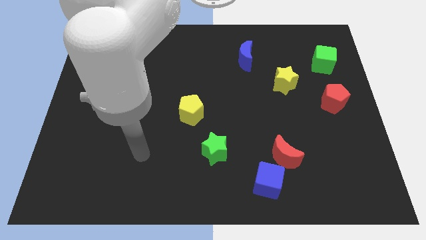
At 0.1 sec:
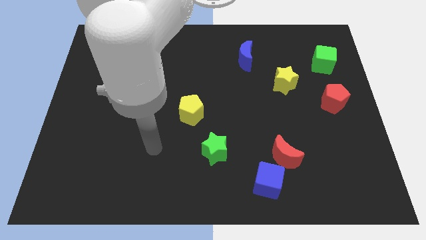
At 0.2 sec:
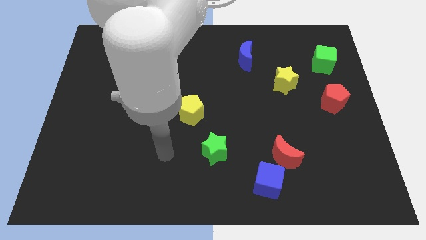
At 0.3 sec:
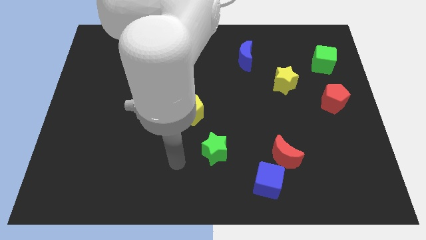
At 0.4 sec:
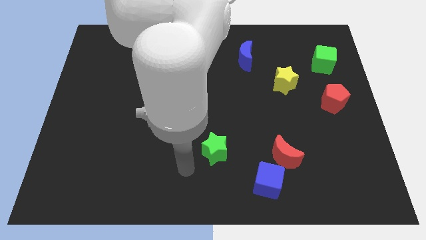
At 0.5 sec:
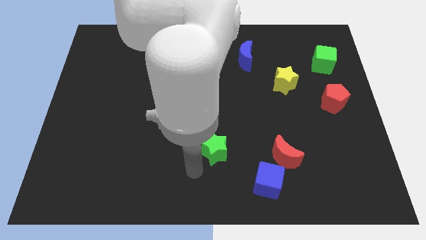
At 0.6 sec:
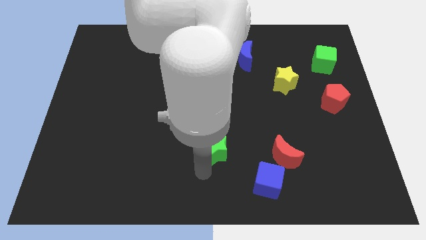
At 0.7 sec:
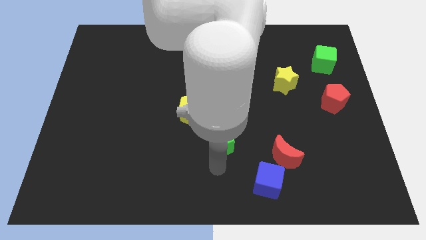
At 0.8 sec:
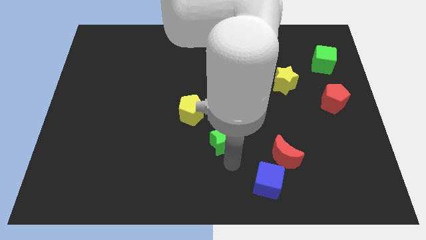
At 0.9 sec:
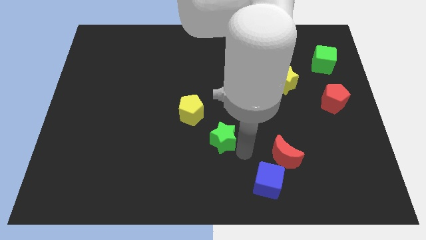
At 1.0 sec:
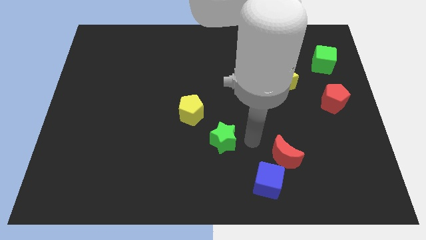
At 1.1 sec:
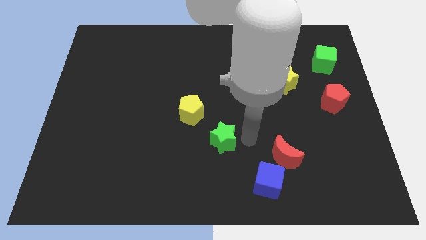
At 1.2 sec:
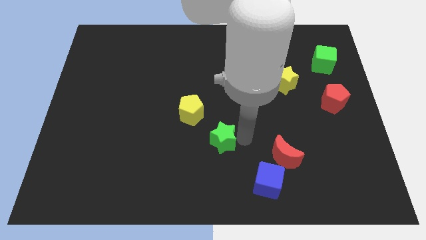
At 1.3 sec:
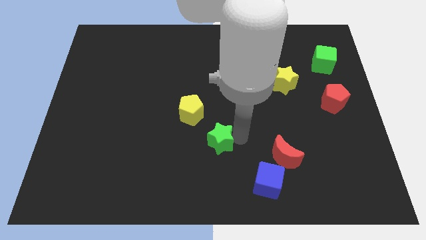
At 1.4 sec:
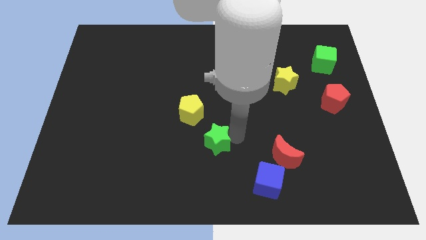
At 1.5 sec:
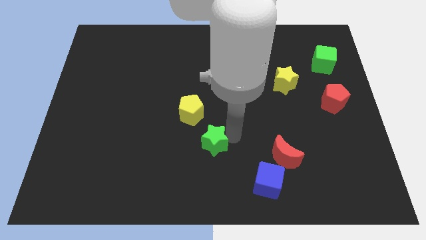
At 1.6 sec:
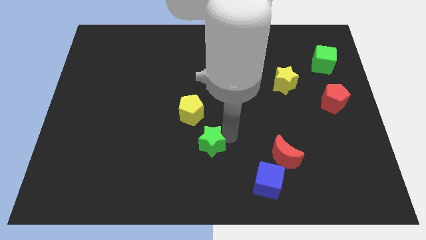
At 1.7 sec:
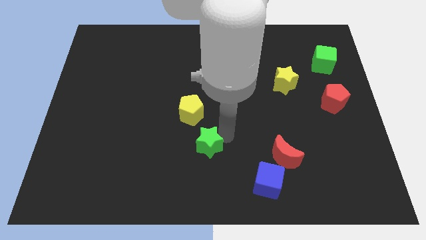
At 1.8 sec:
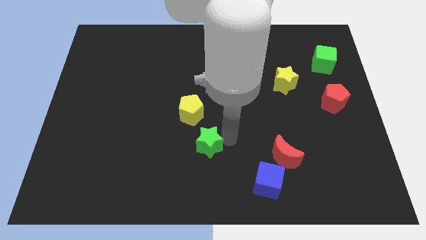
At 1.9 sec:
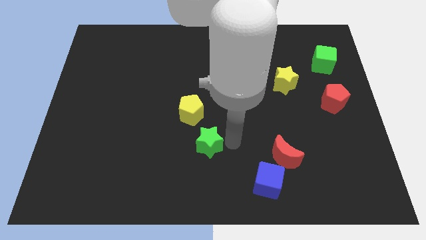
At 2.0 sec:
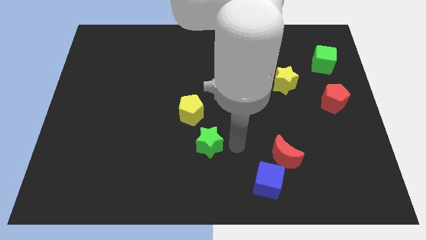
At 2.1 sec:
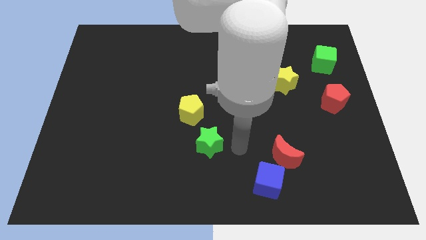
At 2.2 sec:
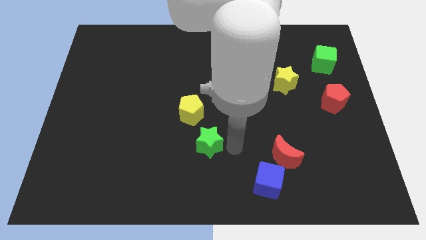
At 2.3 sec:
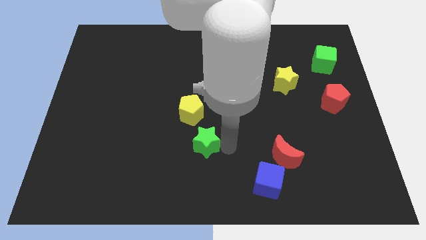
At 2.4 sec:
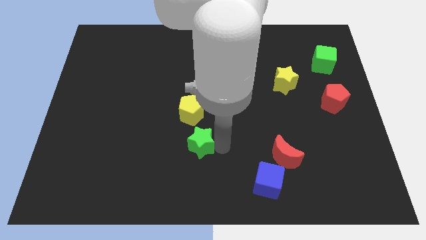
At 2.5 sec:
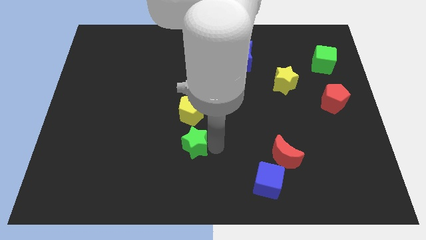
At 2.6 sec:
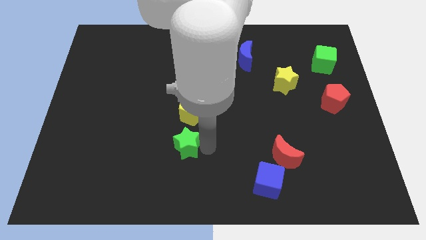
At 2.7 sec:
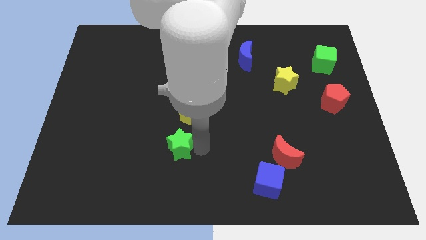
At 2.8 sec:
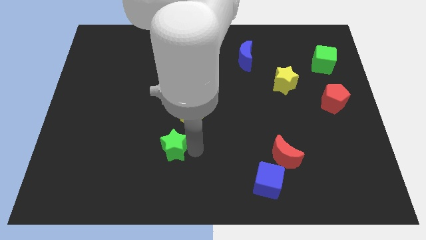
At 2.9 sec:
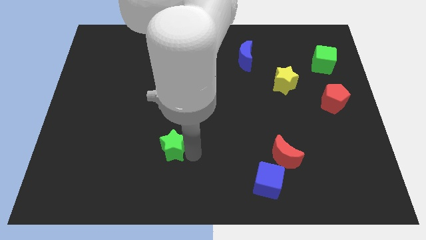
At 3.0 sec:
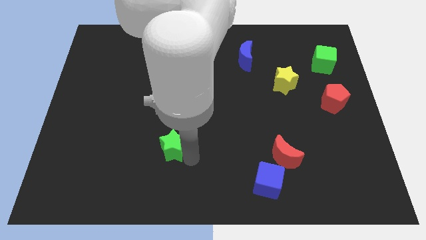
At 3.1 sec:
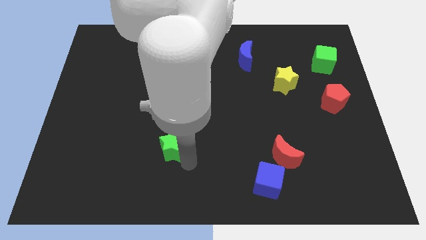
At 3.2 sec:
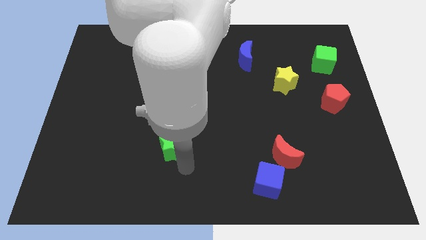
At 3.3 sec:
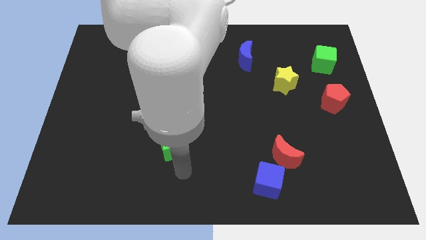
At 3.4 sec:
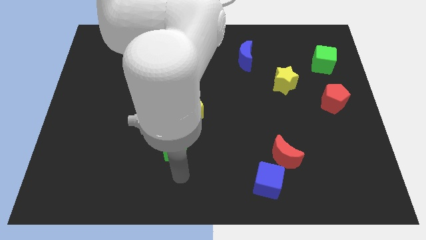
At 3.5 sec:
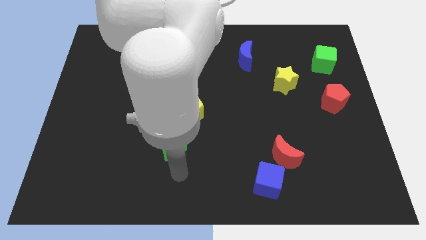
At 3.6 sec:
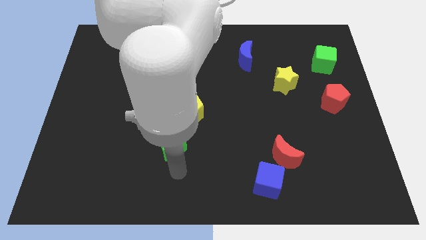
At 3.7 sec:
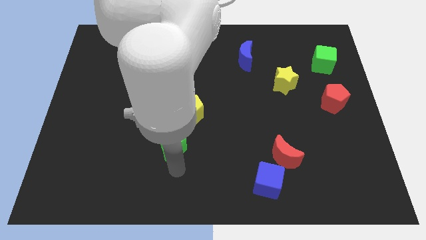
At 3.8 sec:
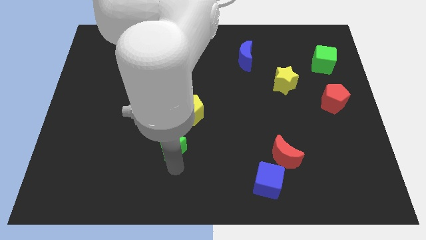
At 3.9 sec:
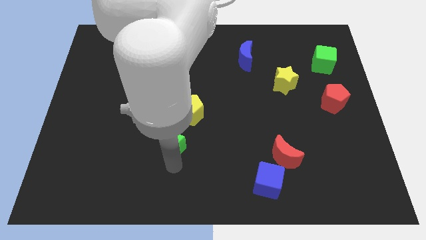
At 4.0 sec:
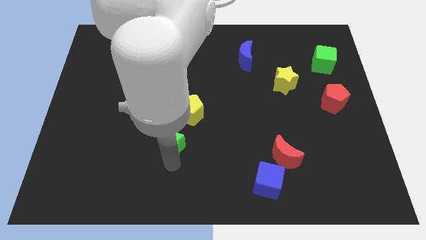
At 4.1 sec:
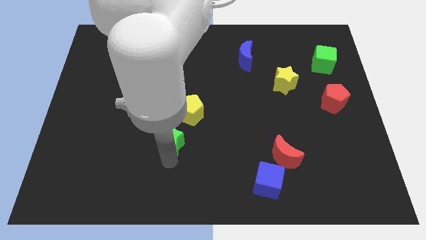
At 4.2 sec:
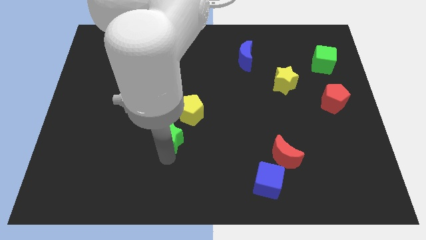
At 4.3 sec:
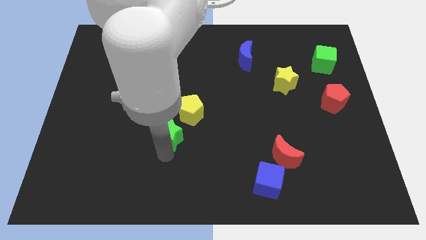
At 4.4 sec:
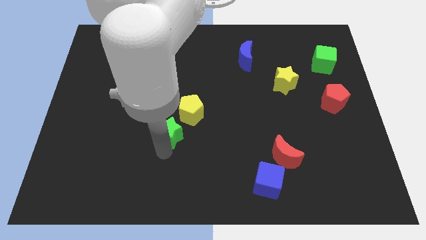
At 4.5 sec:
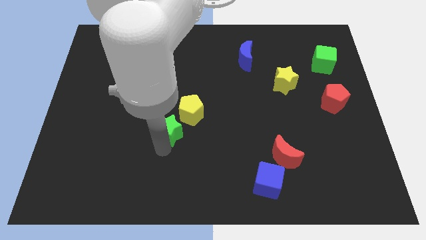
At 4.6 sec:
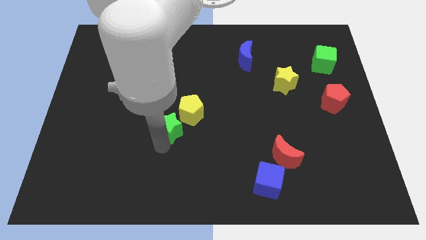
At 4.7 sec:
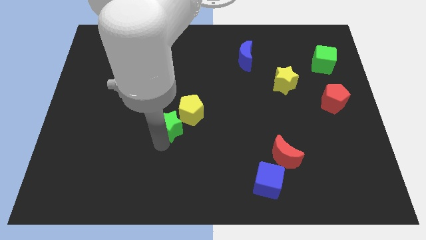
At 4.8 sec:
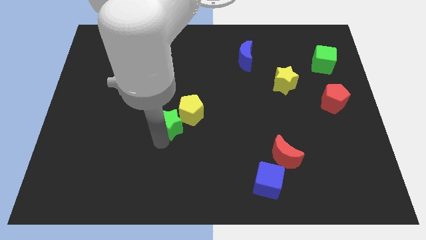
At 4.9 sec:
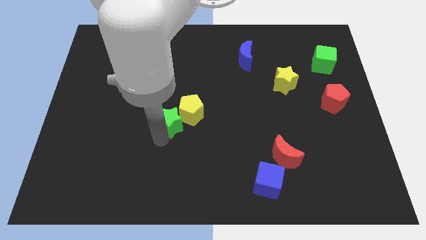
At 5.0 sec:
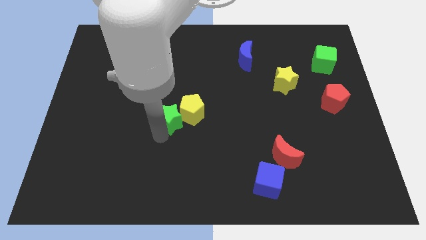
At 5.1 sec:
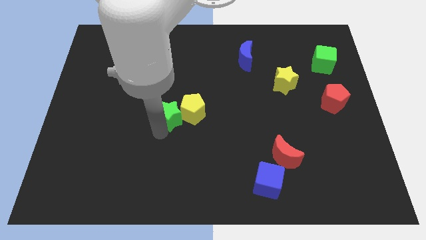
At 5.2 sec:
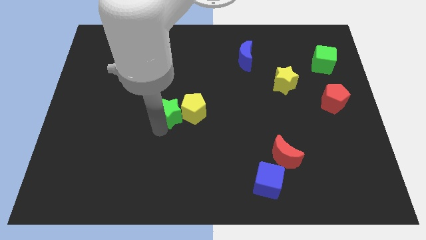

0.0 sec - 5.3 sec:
move the green star to the top left of the yellow pentagon

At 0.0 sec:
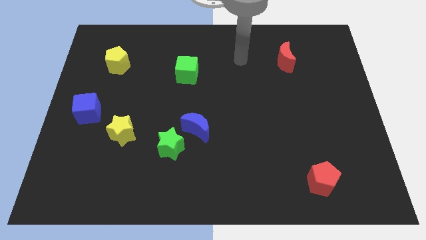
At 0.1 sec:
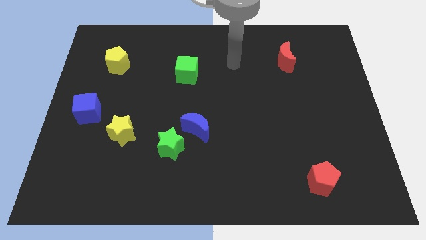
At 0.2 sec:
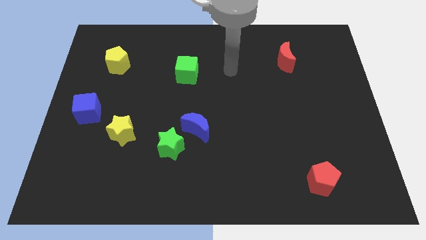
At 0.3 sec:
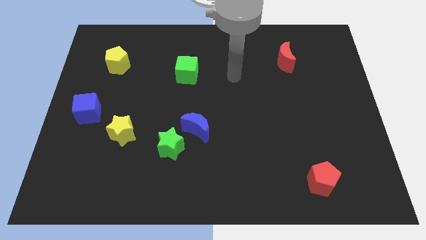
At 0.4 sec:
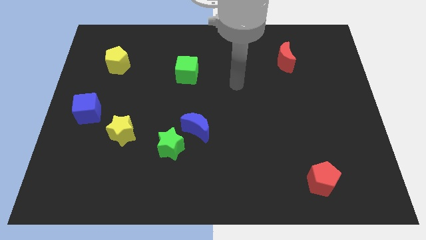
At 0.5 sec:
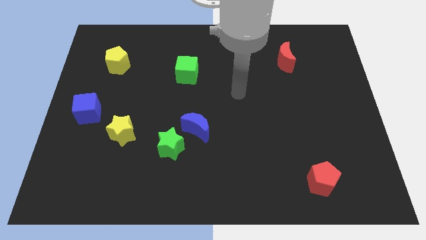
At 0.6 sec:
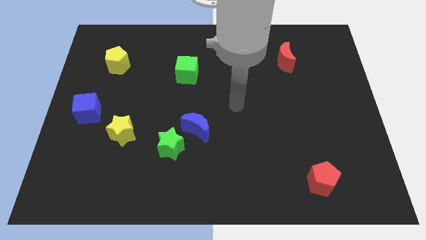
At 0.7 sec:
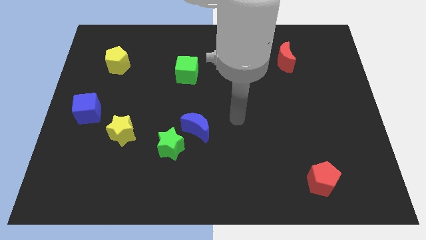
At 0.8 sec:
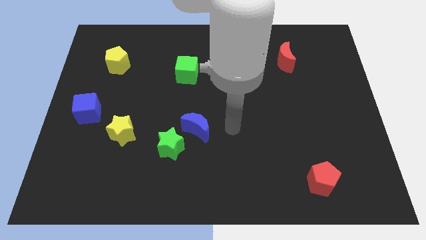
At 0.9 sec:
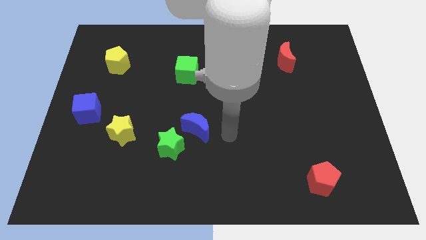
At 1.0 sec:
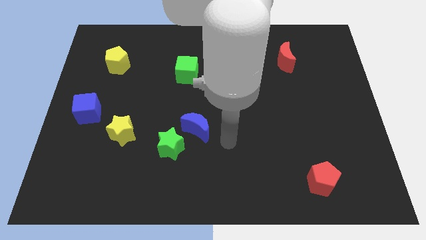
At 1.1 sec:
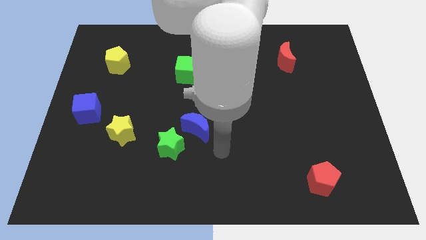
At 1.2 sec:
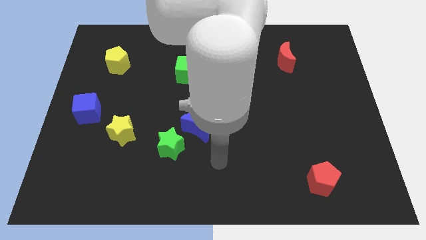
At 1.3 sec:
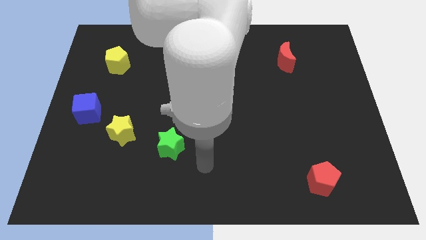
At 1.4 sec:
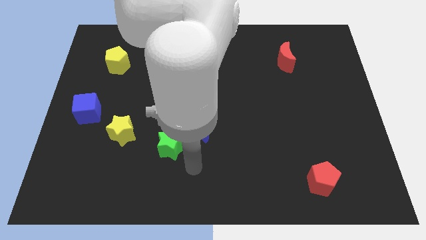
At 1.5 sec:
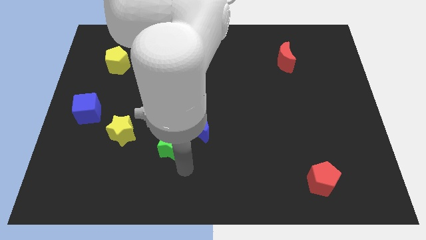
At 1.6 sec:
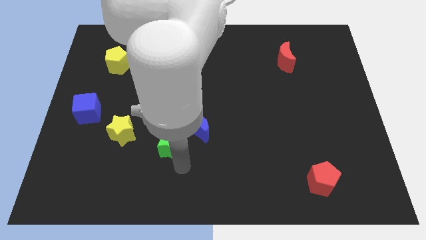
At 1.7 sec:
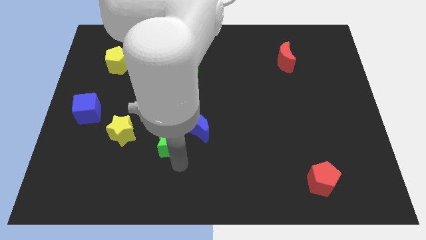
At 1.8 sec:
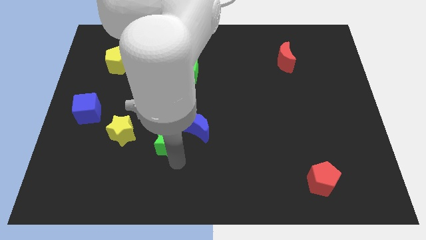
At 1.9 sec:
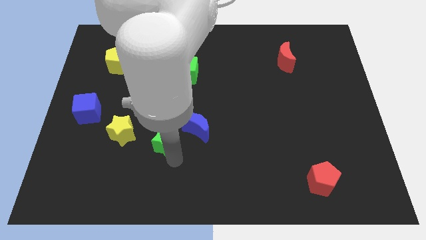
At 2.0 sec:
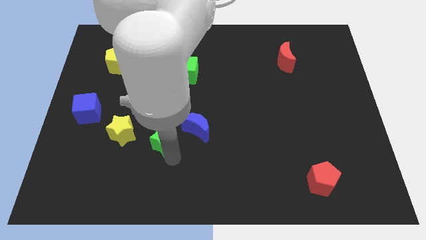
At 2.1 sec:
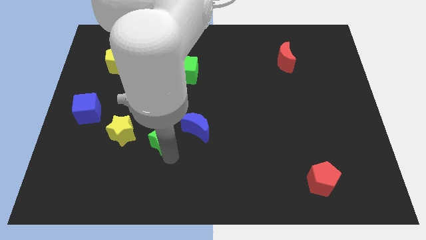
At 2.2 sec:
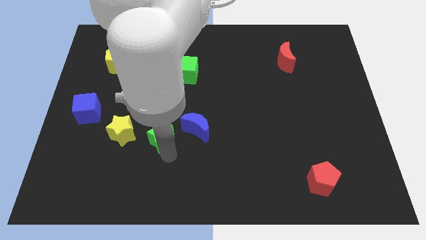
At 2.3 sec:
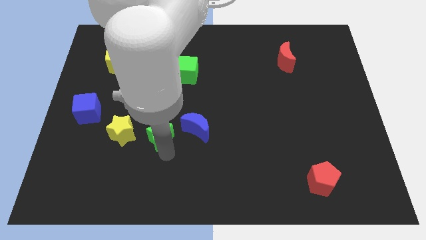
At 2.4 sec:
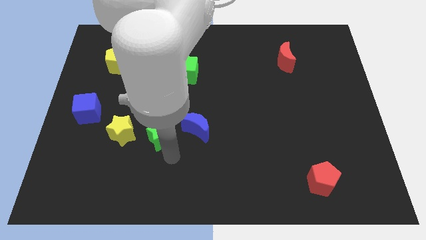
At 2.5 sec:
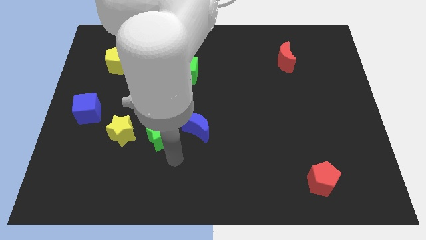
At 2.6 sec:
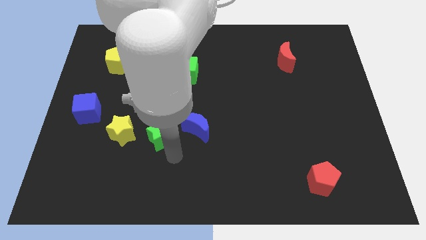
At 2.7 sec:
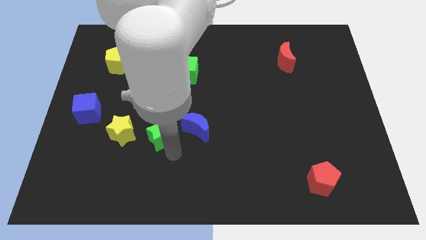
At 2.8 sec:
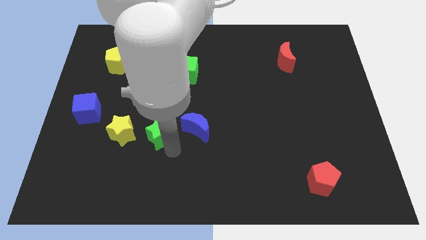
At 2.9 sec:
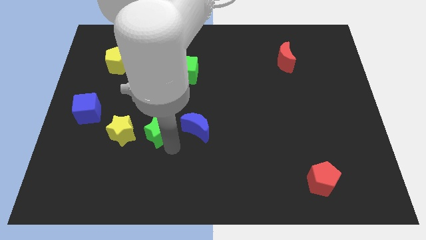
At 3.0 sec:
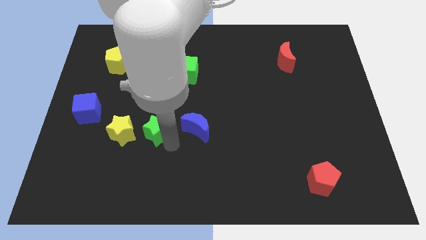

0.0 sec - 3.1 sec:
move the green star to the top right of the yellow star
